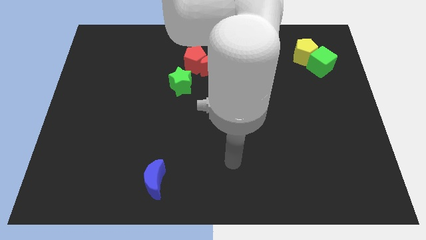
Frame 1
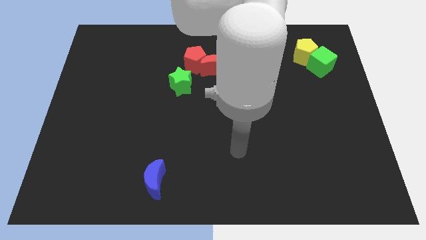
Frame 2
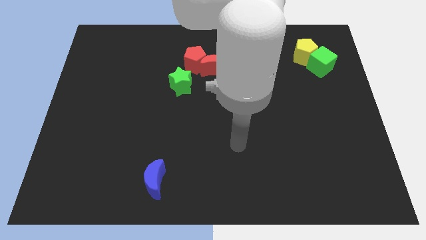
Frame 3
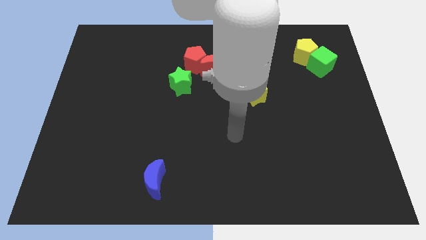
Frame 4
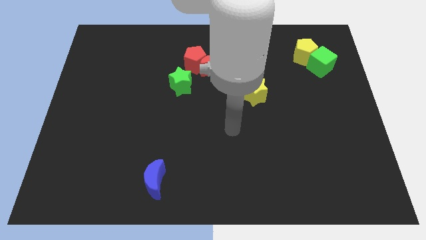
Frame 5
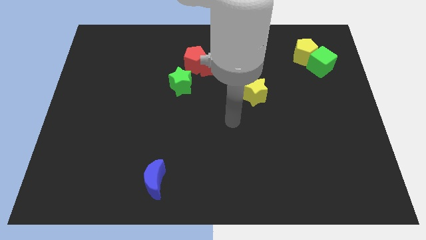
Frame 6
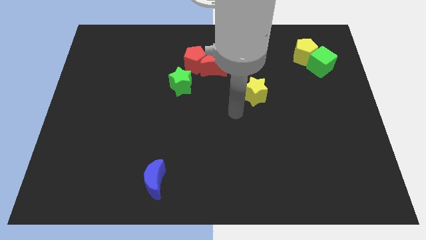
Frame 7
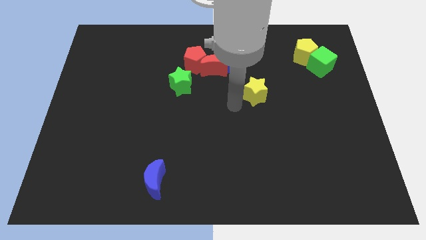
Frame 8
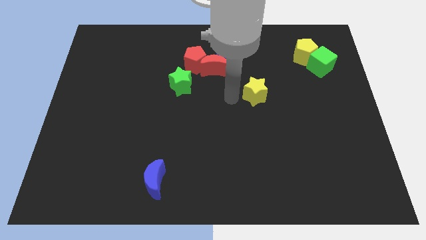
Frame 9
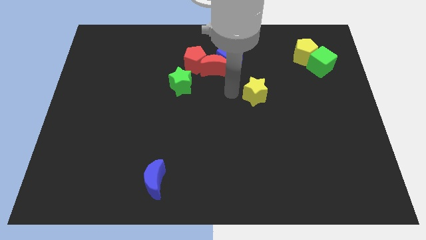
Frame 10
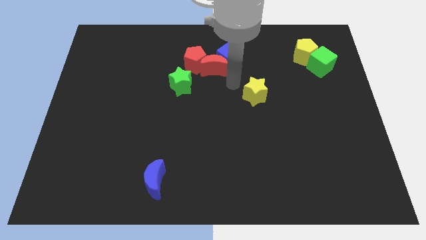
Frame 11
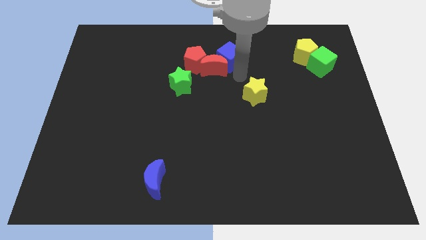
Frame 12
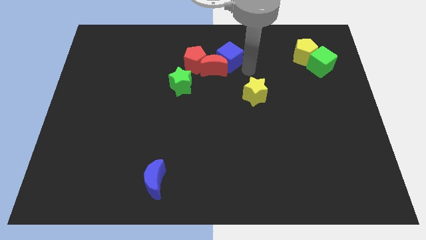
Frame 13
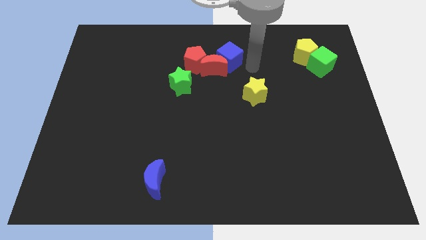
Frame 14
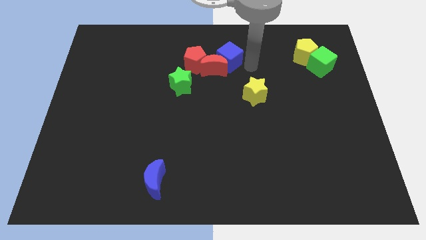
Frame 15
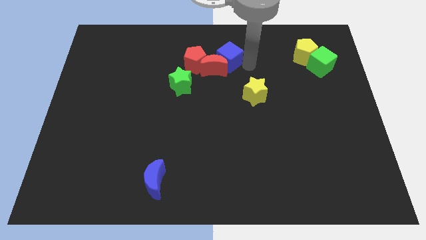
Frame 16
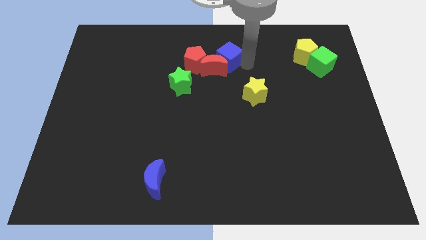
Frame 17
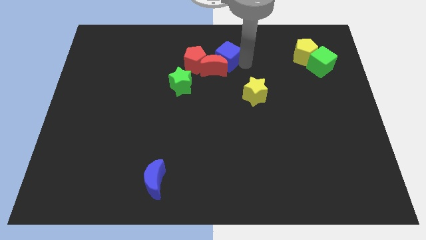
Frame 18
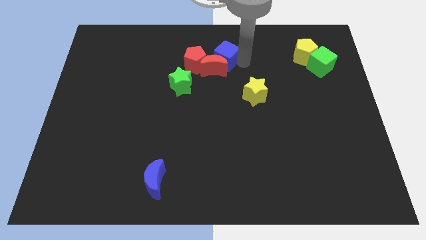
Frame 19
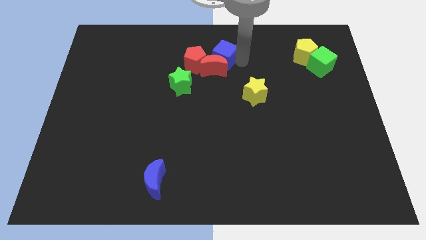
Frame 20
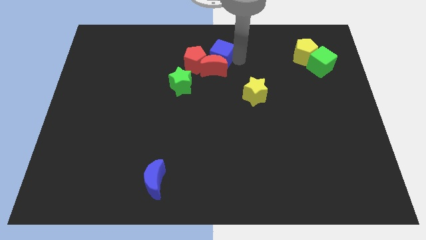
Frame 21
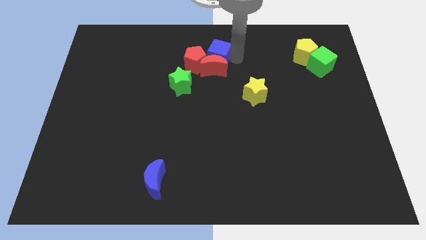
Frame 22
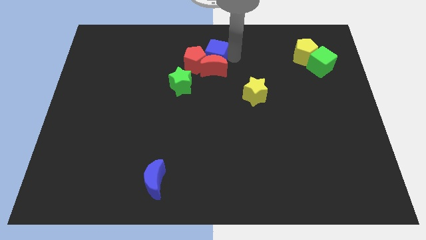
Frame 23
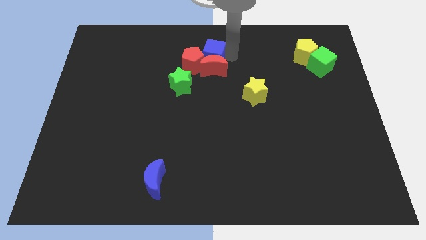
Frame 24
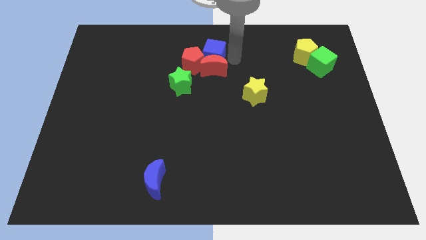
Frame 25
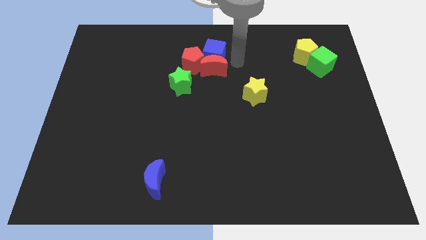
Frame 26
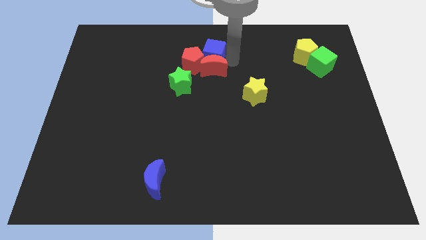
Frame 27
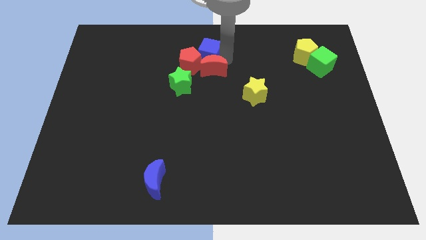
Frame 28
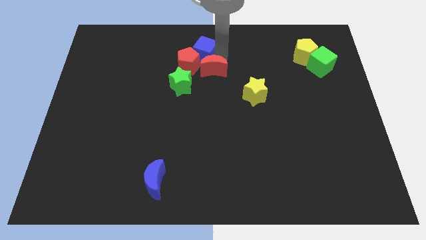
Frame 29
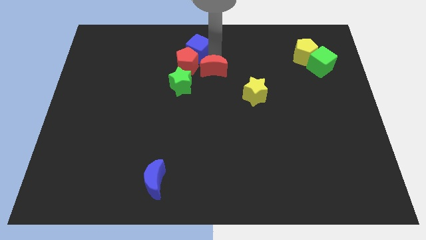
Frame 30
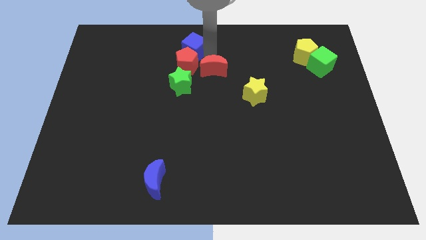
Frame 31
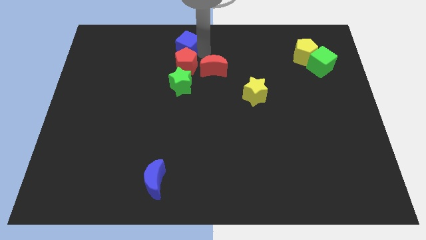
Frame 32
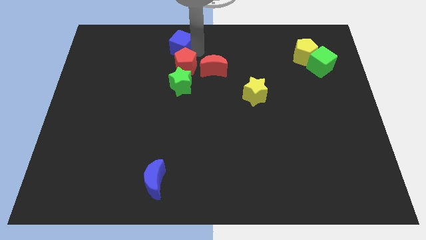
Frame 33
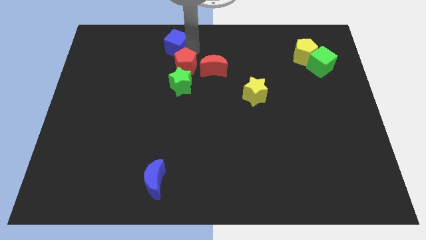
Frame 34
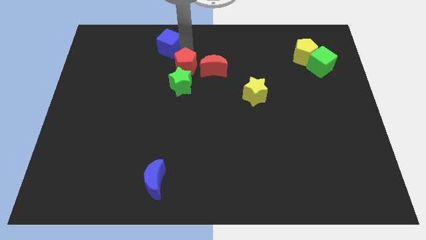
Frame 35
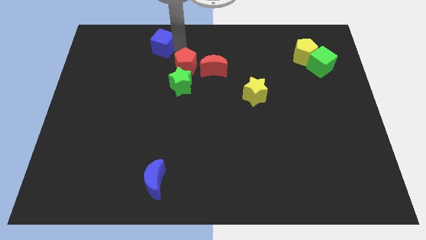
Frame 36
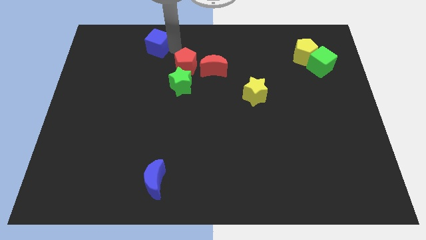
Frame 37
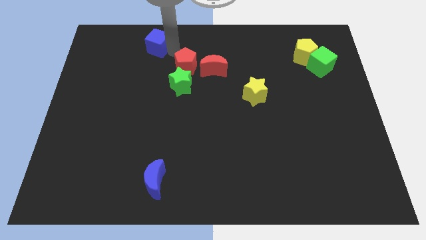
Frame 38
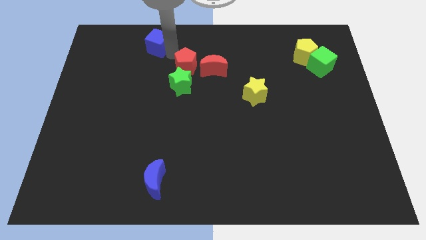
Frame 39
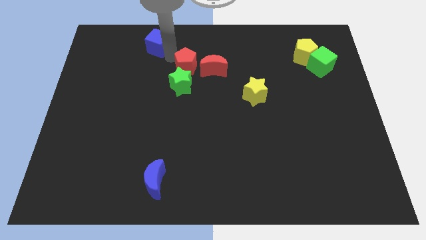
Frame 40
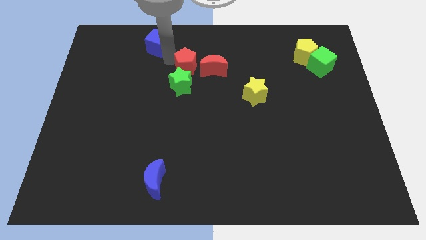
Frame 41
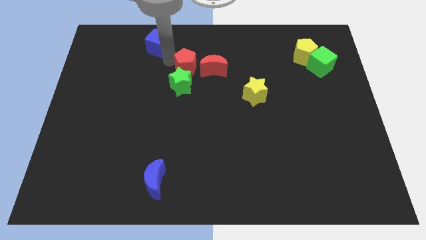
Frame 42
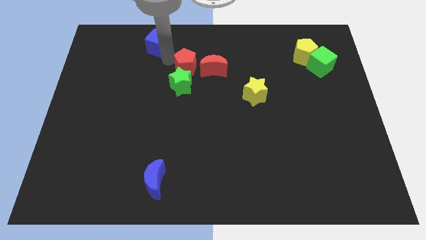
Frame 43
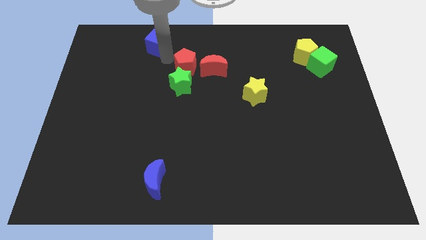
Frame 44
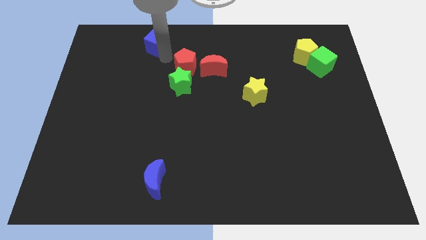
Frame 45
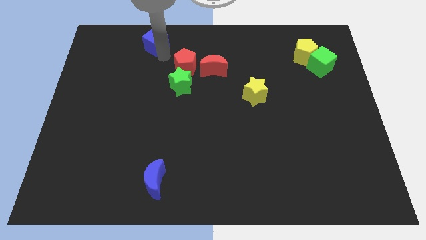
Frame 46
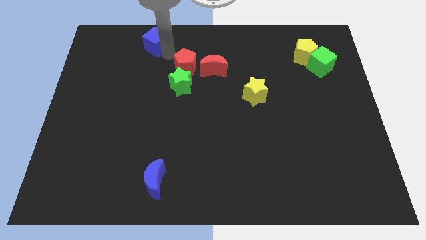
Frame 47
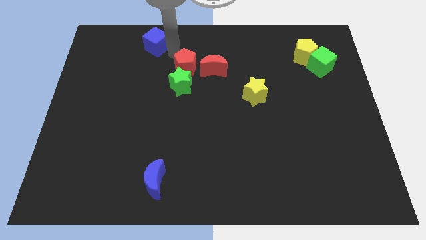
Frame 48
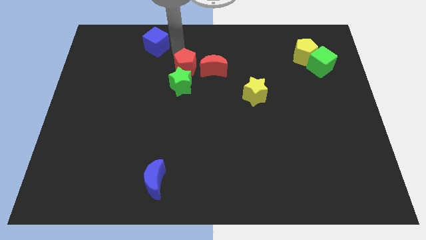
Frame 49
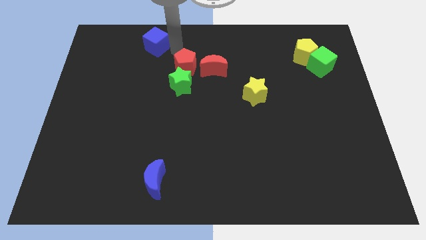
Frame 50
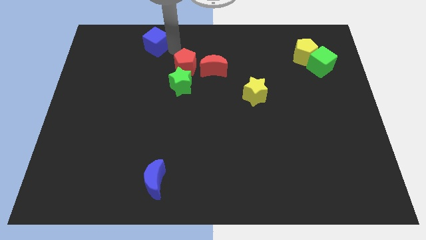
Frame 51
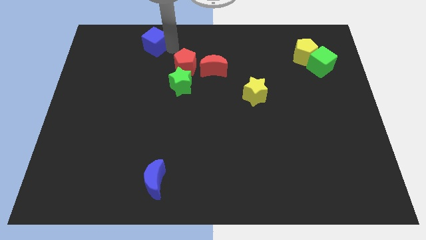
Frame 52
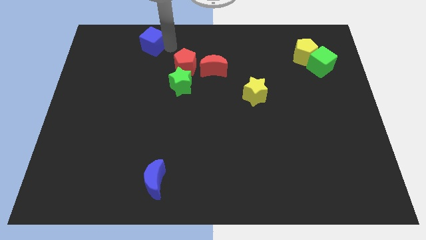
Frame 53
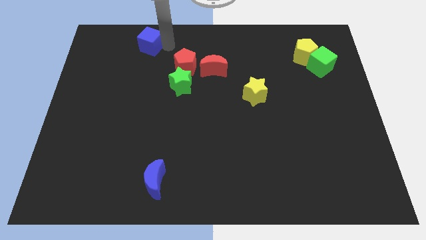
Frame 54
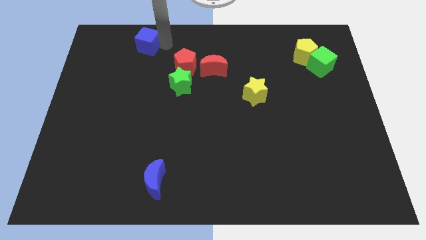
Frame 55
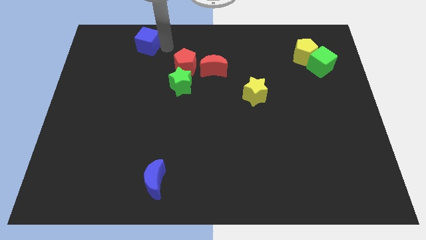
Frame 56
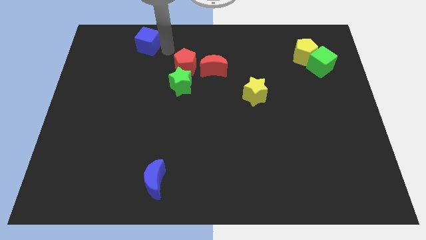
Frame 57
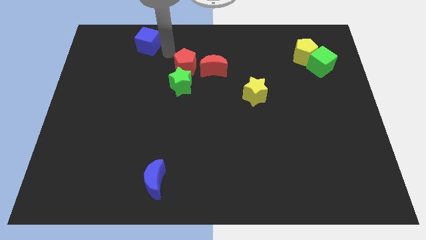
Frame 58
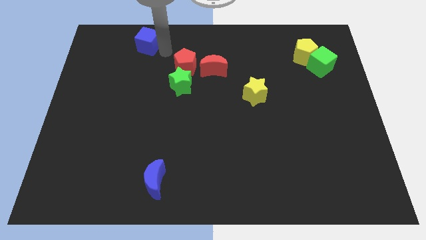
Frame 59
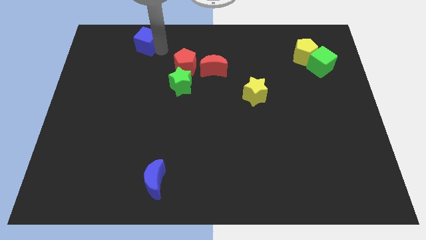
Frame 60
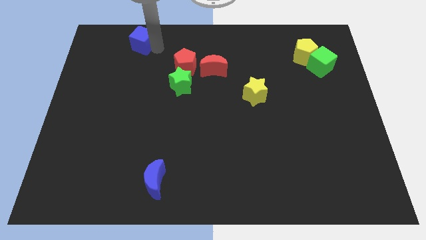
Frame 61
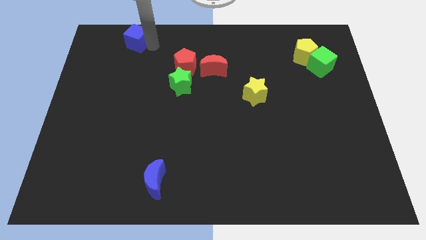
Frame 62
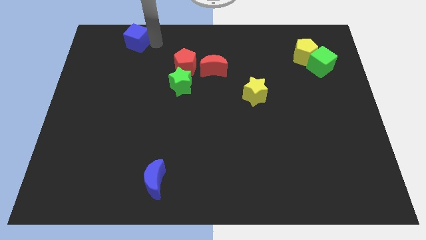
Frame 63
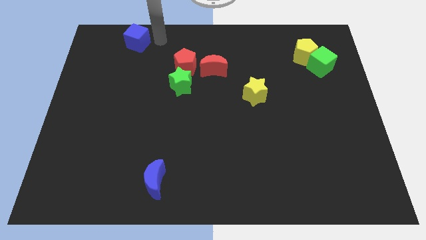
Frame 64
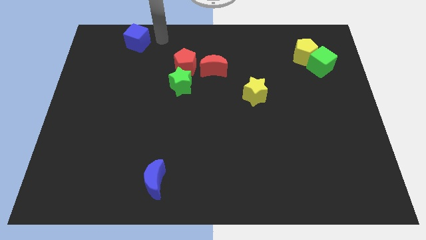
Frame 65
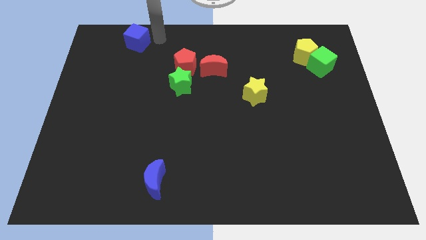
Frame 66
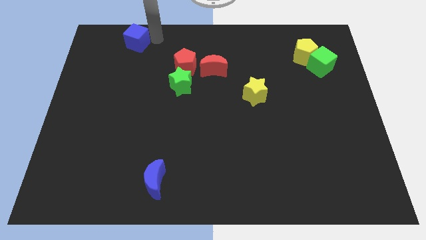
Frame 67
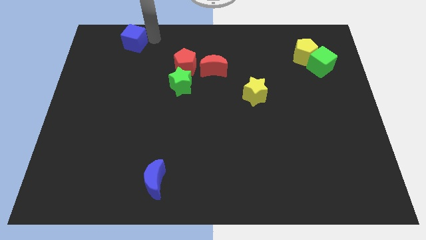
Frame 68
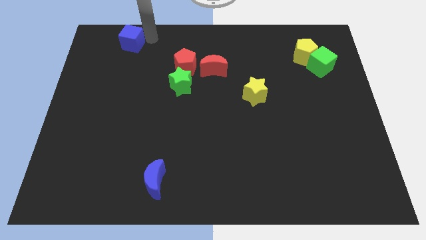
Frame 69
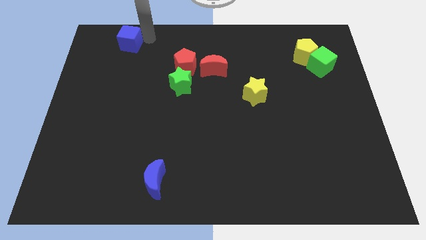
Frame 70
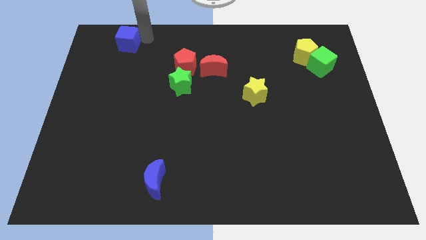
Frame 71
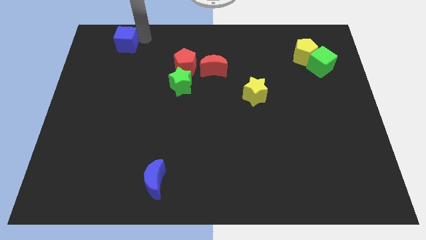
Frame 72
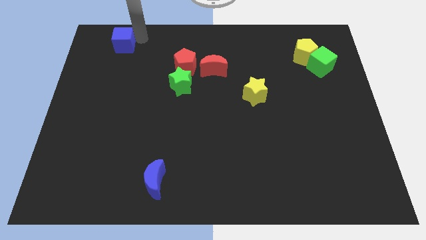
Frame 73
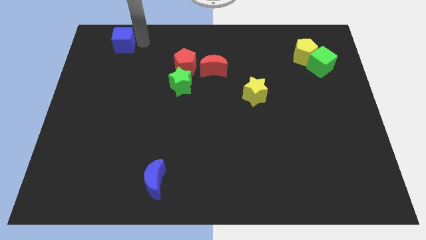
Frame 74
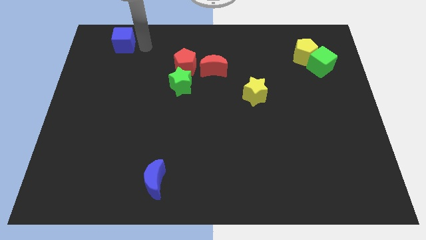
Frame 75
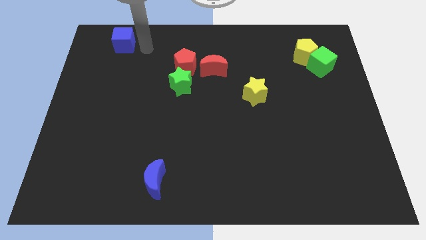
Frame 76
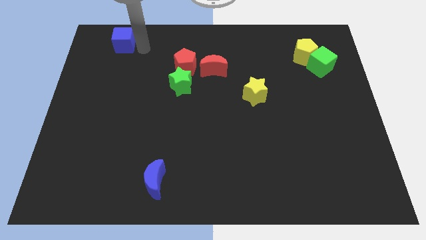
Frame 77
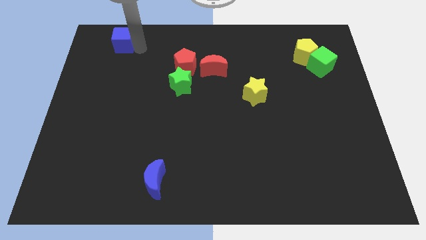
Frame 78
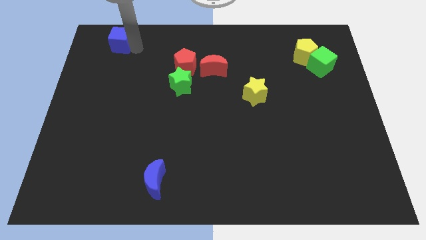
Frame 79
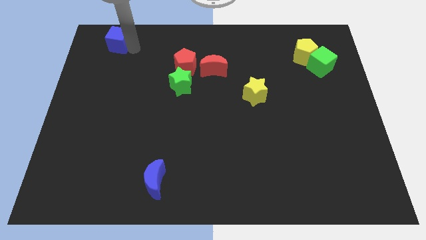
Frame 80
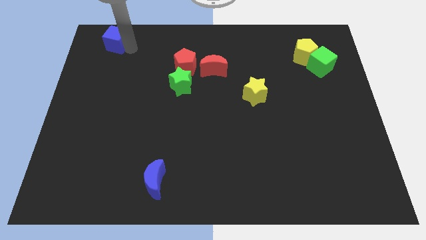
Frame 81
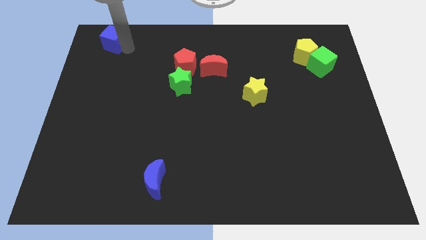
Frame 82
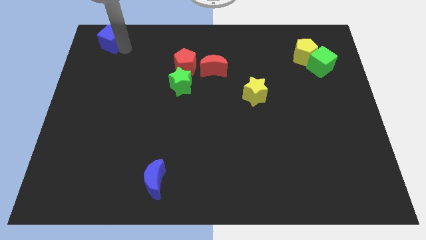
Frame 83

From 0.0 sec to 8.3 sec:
slide the blue cube to the top left corner
